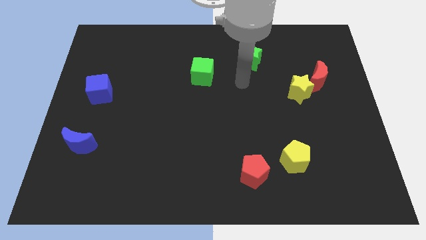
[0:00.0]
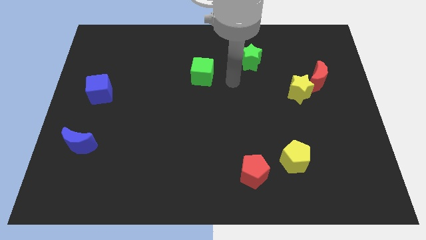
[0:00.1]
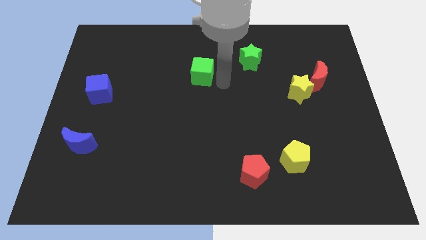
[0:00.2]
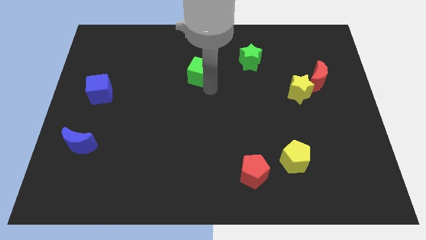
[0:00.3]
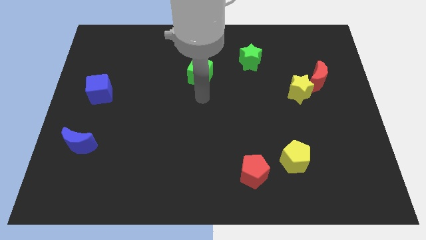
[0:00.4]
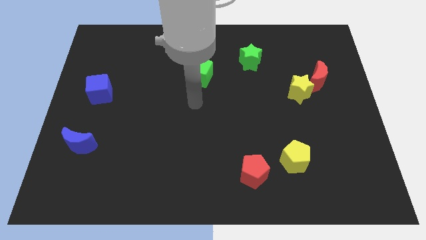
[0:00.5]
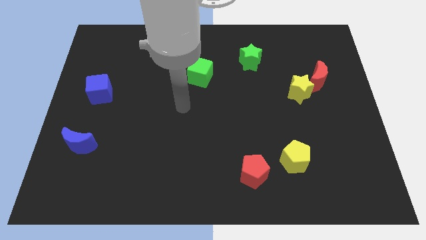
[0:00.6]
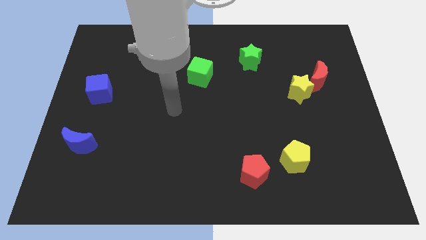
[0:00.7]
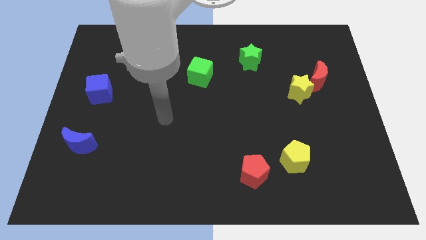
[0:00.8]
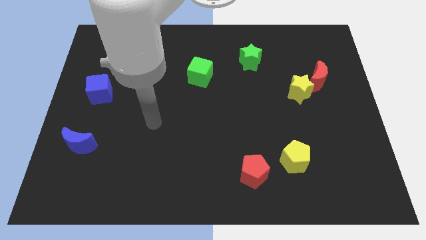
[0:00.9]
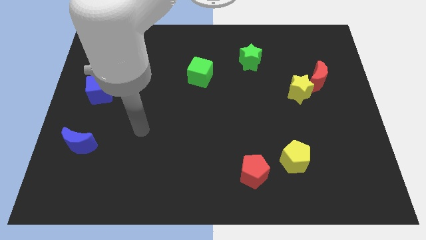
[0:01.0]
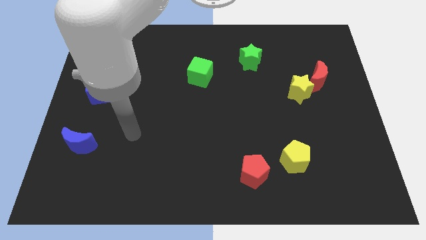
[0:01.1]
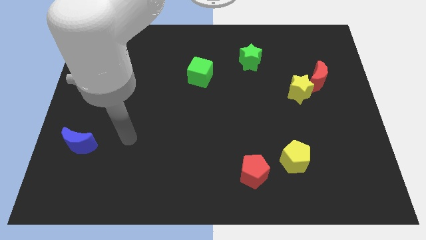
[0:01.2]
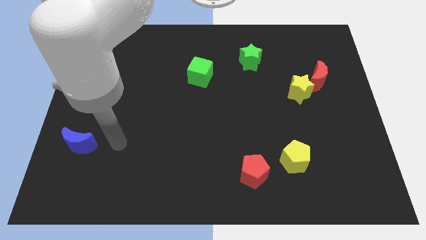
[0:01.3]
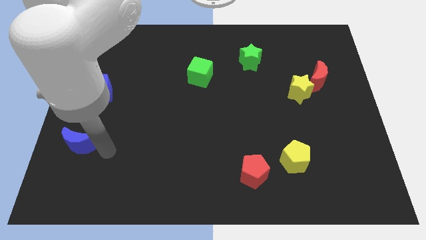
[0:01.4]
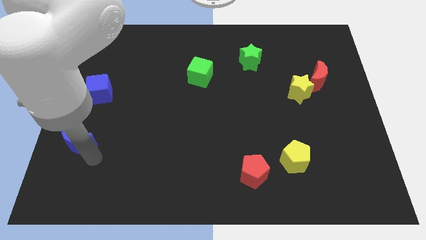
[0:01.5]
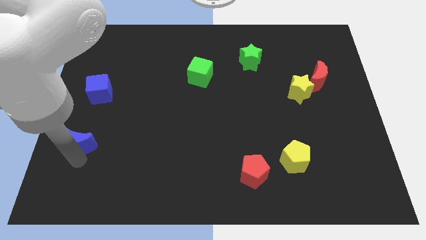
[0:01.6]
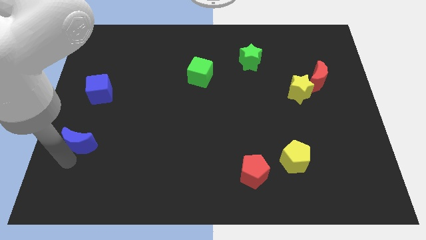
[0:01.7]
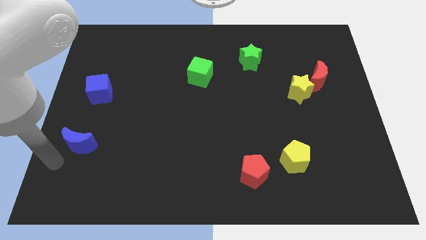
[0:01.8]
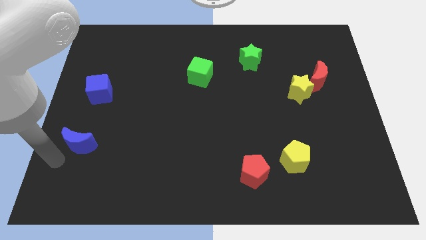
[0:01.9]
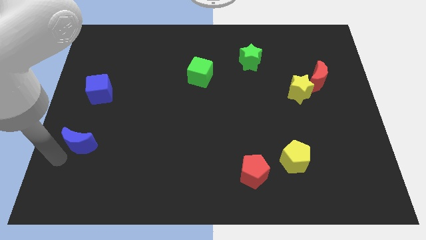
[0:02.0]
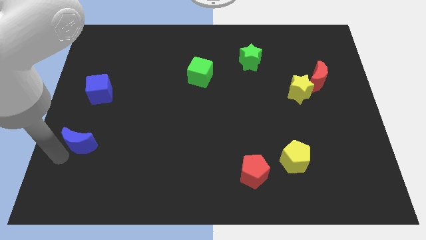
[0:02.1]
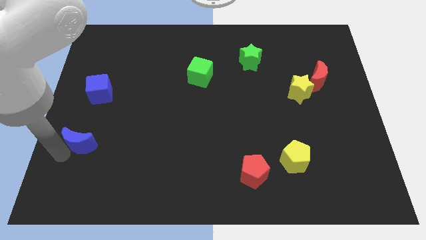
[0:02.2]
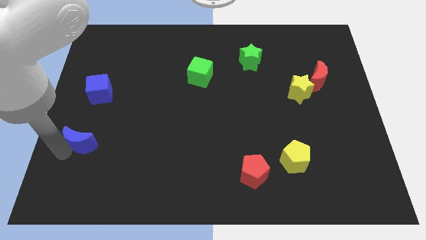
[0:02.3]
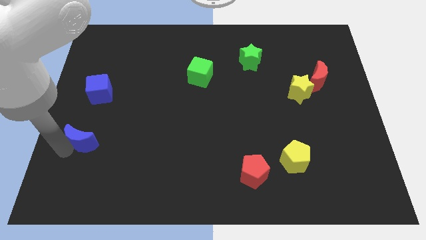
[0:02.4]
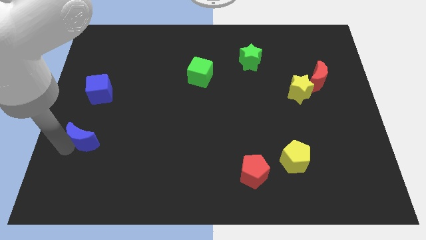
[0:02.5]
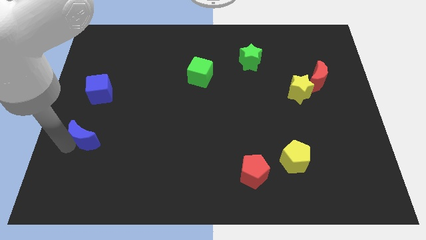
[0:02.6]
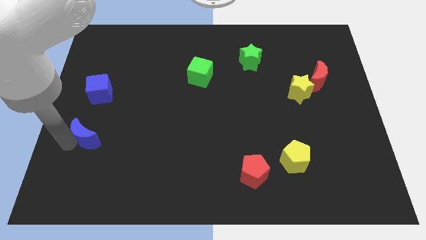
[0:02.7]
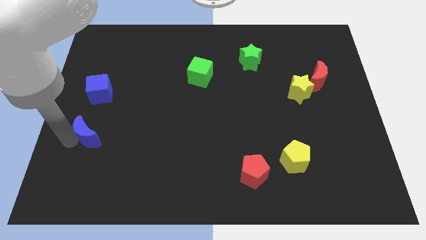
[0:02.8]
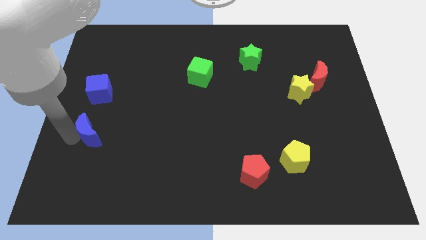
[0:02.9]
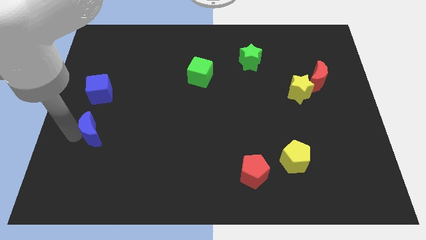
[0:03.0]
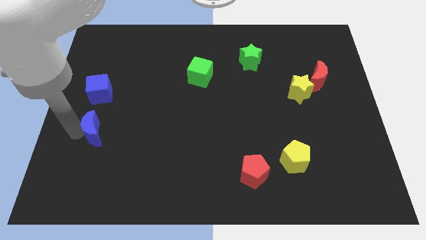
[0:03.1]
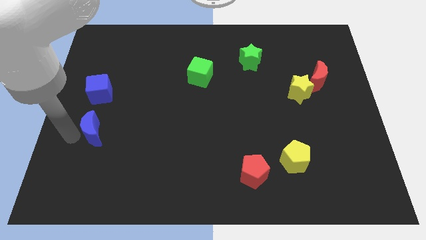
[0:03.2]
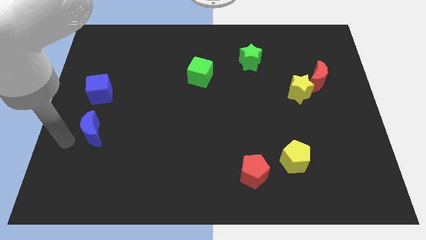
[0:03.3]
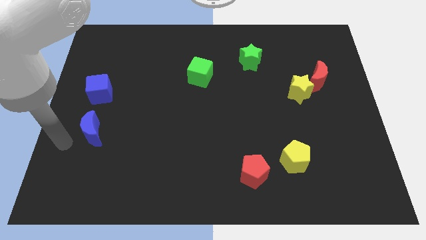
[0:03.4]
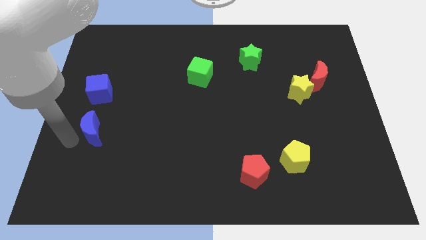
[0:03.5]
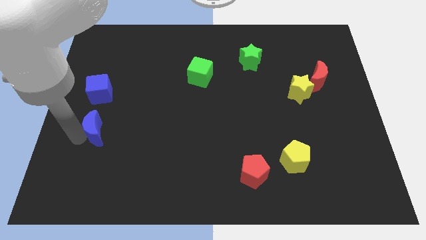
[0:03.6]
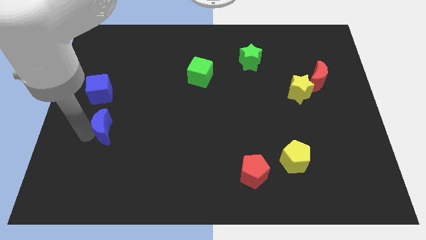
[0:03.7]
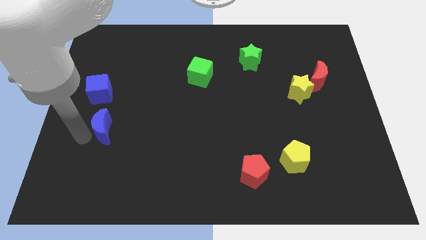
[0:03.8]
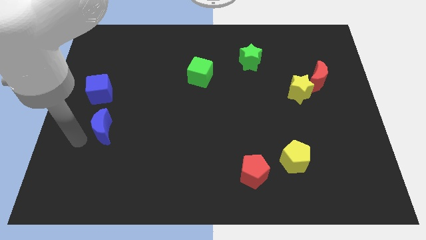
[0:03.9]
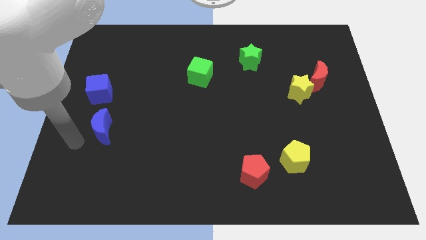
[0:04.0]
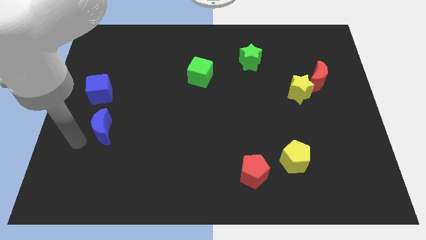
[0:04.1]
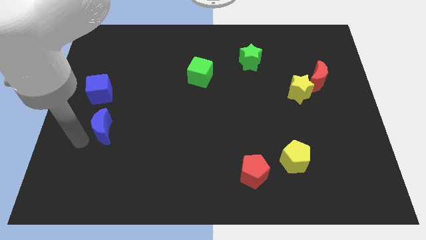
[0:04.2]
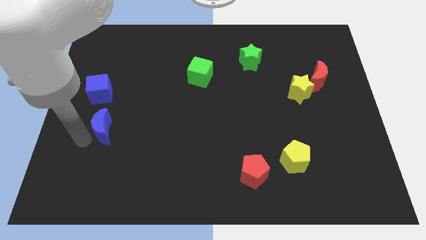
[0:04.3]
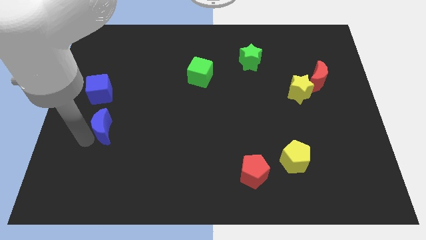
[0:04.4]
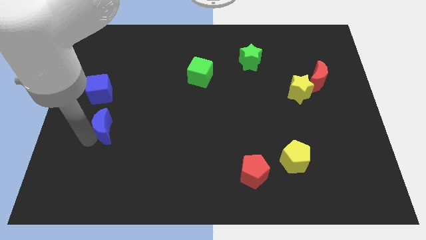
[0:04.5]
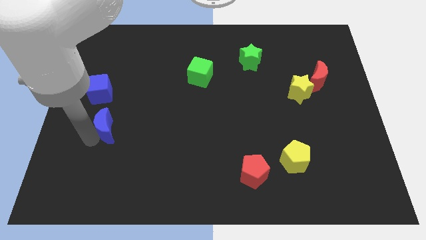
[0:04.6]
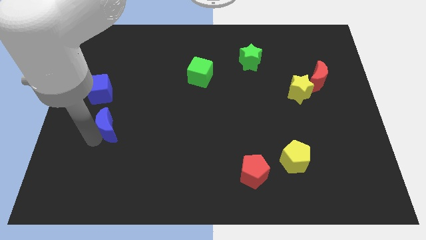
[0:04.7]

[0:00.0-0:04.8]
move the blue moon upwards and right diagonally a bit

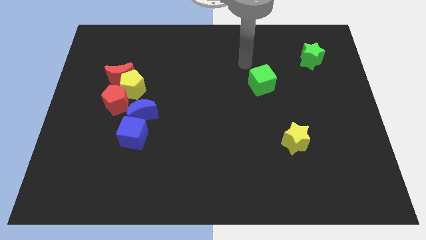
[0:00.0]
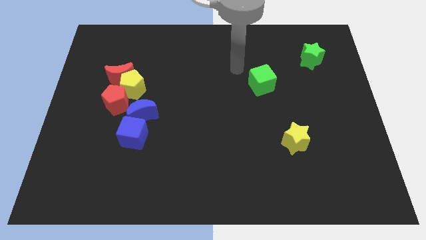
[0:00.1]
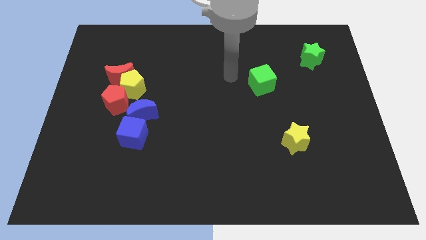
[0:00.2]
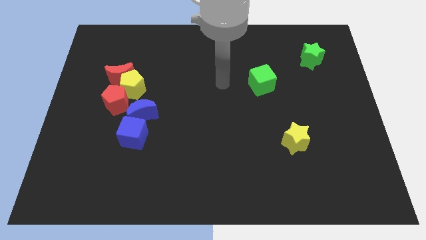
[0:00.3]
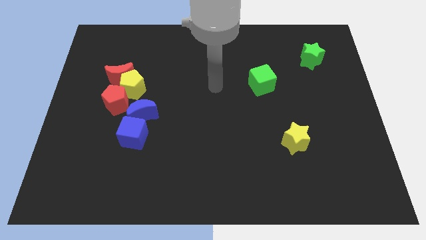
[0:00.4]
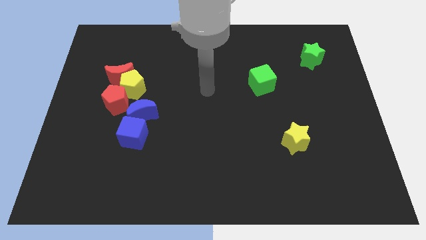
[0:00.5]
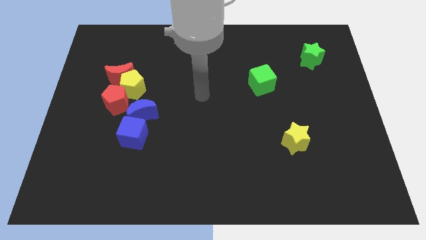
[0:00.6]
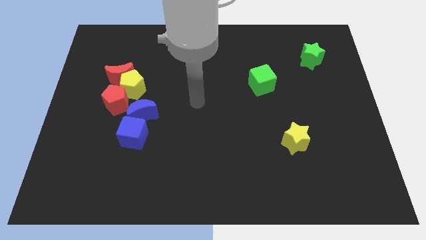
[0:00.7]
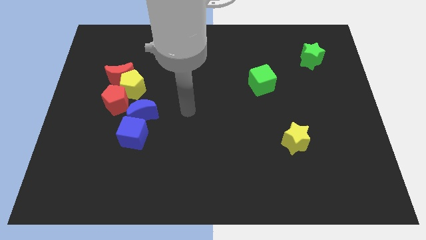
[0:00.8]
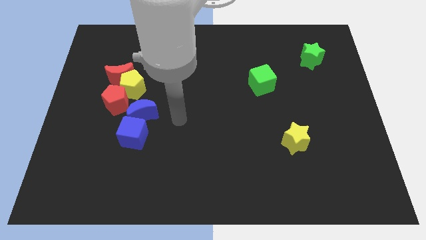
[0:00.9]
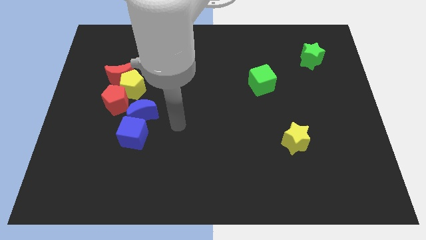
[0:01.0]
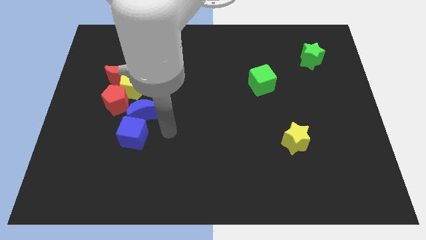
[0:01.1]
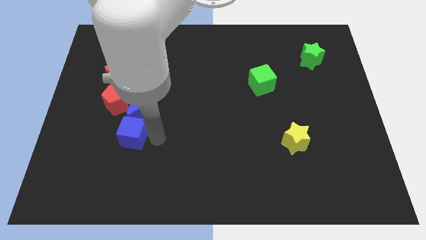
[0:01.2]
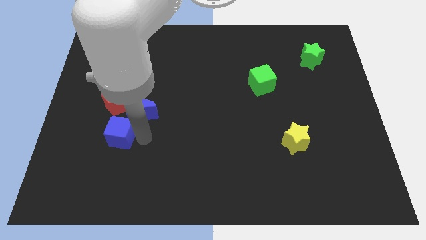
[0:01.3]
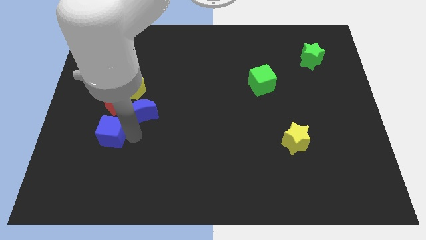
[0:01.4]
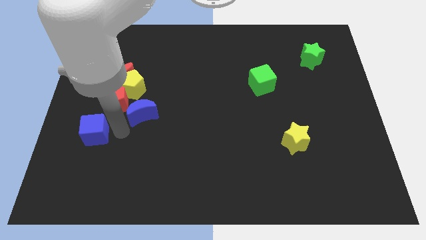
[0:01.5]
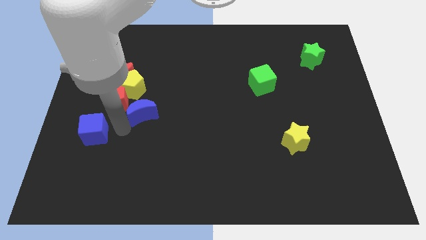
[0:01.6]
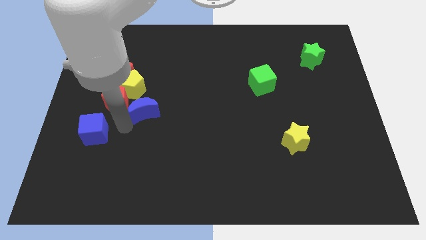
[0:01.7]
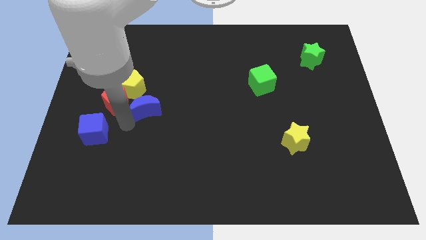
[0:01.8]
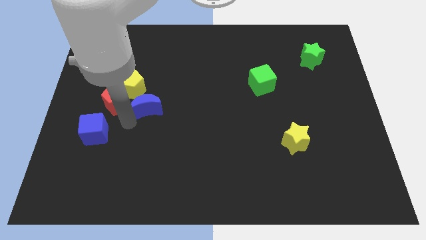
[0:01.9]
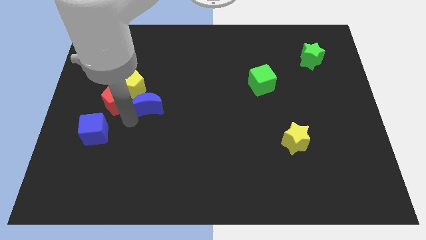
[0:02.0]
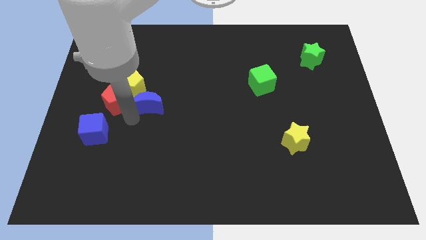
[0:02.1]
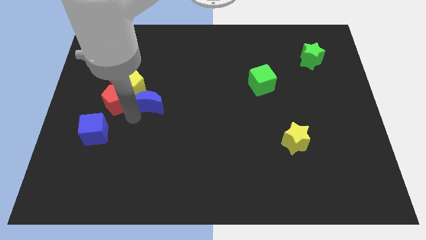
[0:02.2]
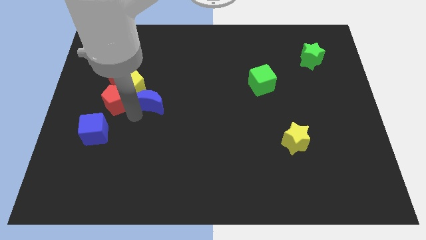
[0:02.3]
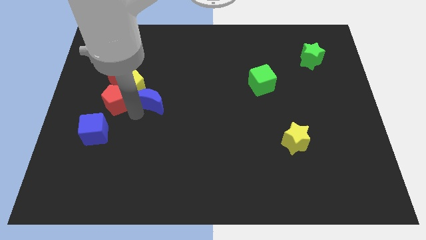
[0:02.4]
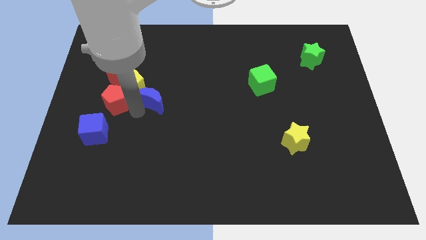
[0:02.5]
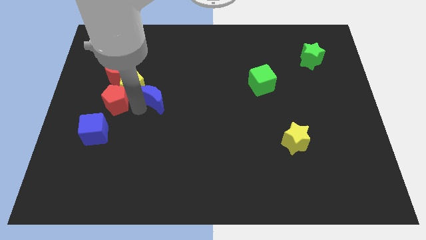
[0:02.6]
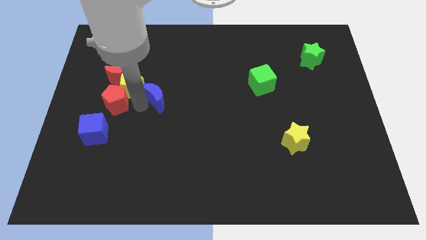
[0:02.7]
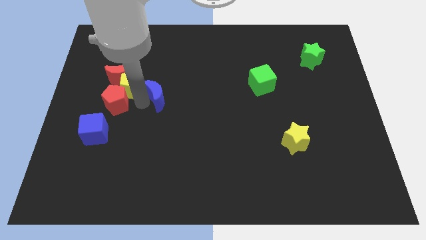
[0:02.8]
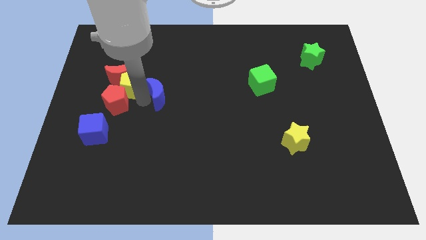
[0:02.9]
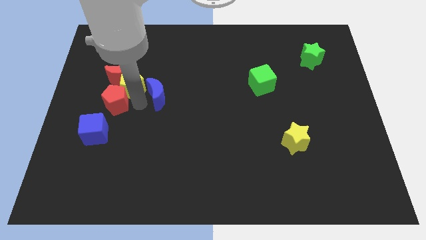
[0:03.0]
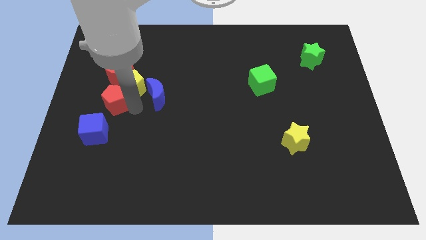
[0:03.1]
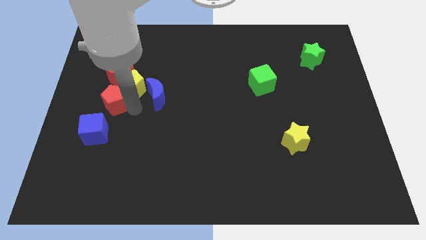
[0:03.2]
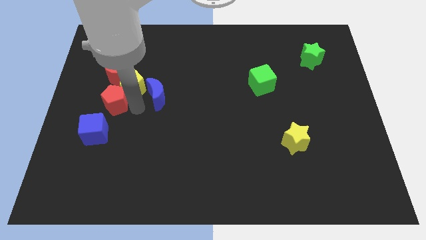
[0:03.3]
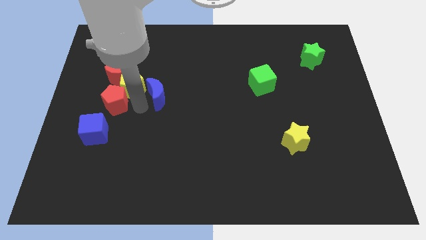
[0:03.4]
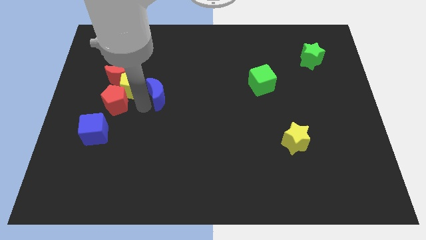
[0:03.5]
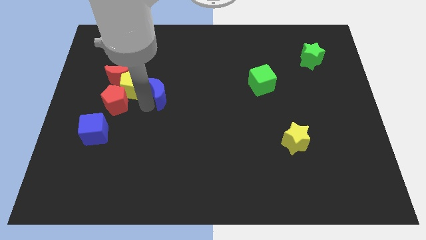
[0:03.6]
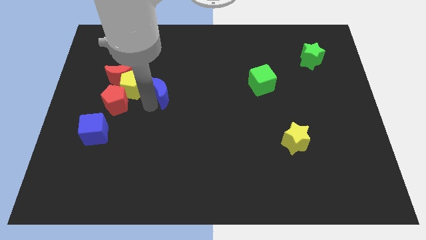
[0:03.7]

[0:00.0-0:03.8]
push the blue moon a little diagonally up and right
